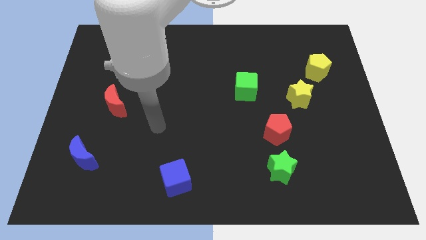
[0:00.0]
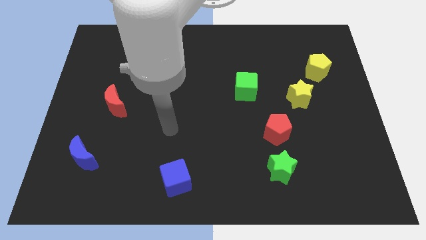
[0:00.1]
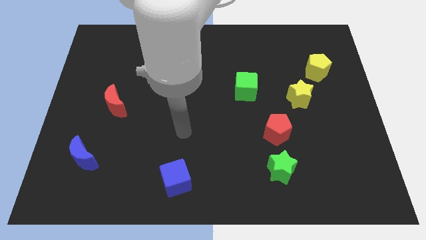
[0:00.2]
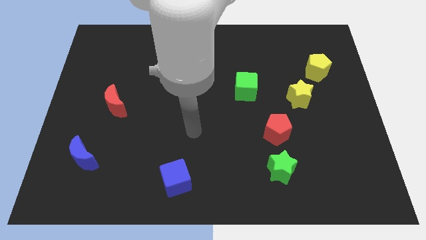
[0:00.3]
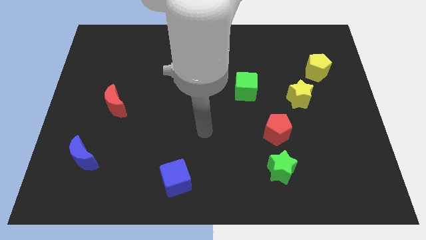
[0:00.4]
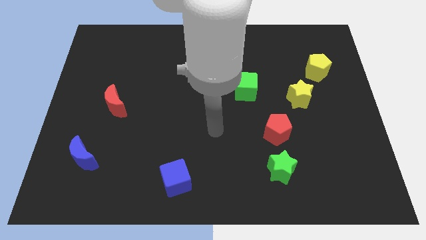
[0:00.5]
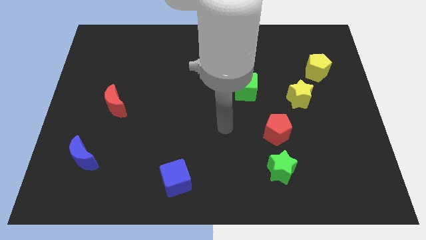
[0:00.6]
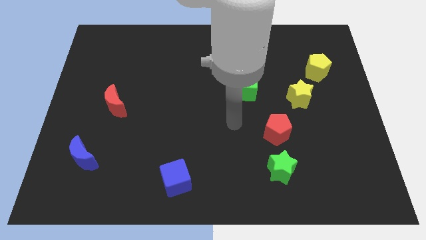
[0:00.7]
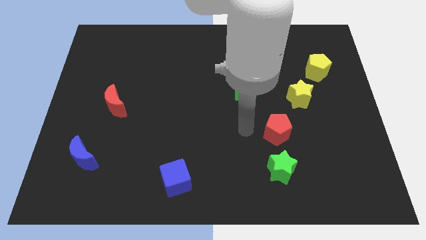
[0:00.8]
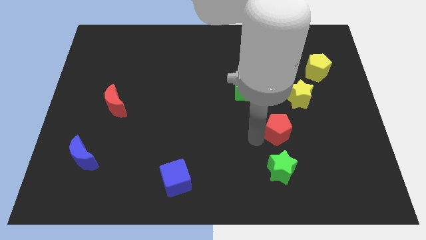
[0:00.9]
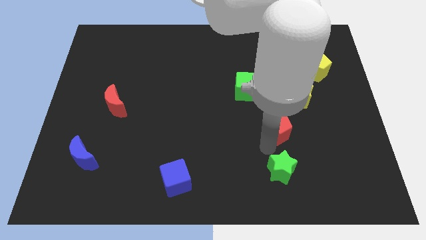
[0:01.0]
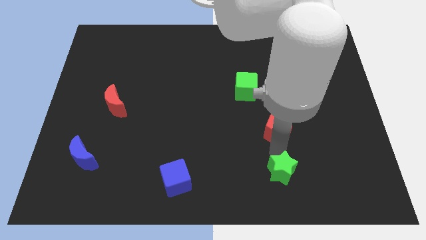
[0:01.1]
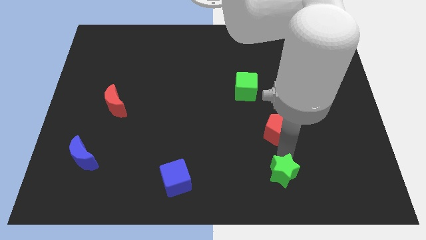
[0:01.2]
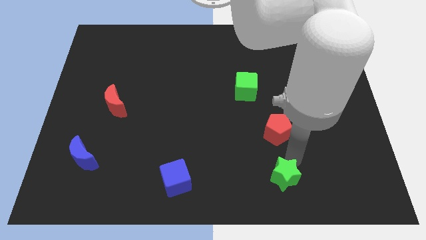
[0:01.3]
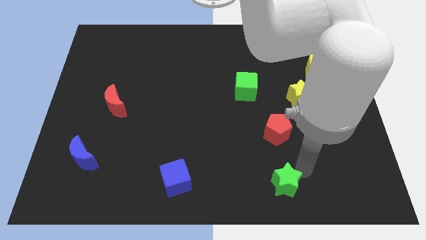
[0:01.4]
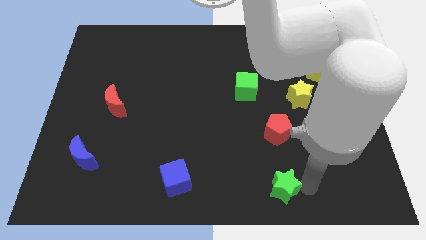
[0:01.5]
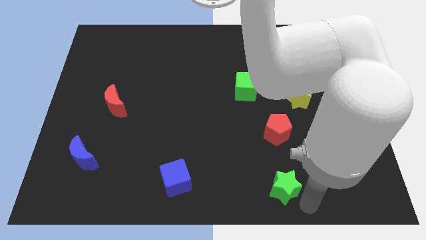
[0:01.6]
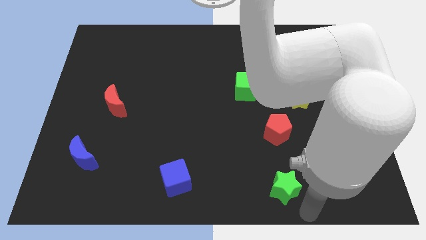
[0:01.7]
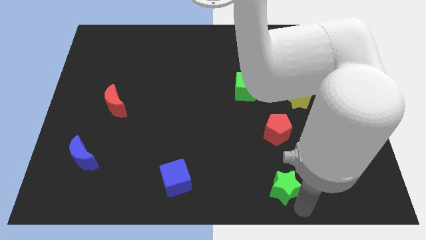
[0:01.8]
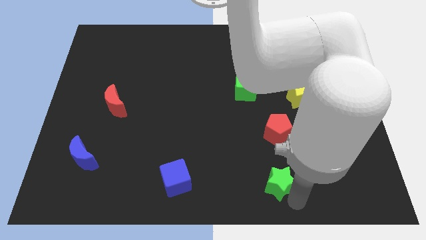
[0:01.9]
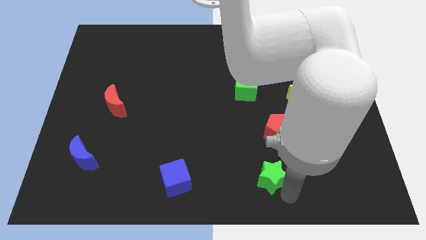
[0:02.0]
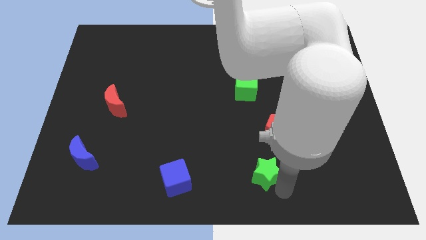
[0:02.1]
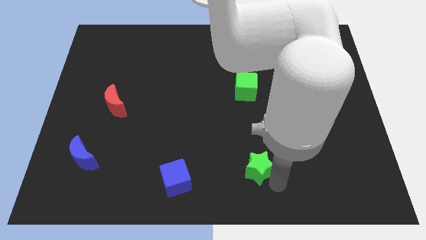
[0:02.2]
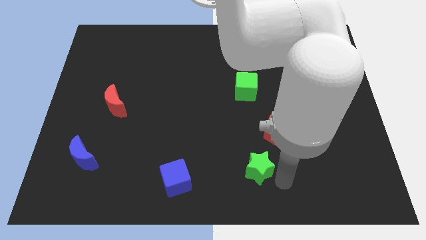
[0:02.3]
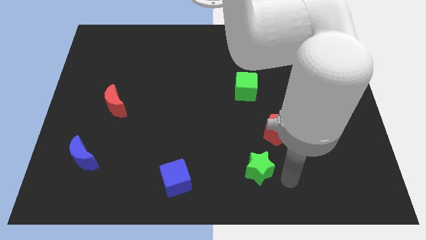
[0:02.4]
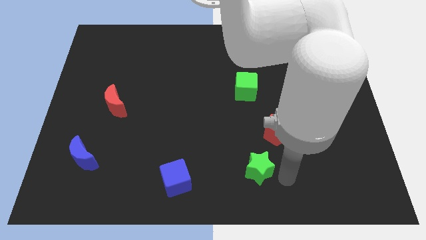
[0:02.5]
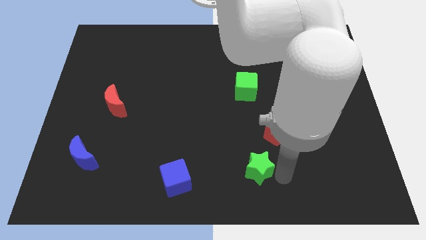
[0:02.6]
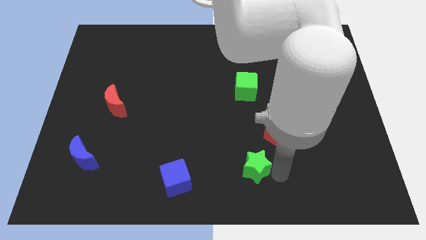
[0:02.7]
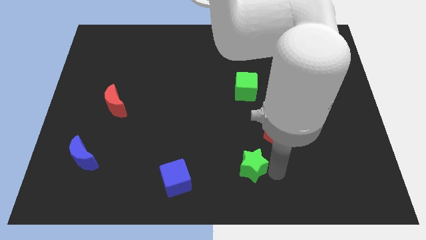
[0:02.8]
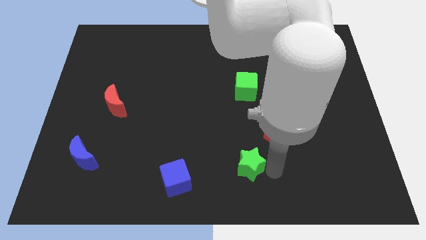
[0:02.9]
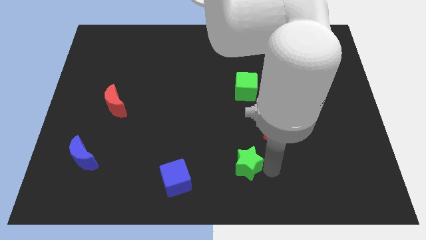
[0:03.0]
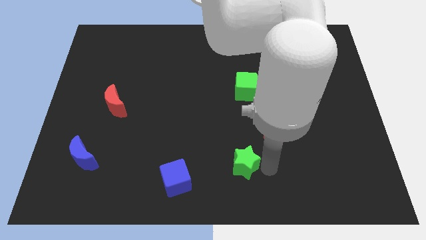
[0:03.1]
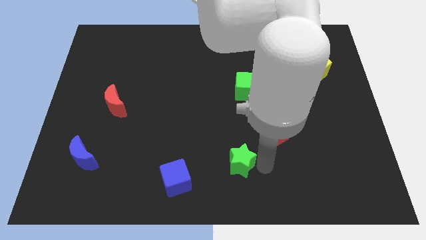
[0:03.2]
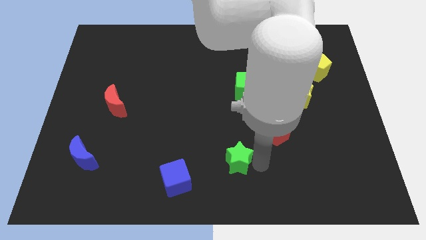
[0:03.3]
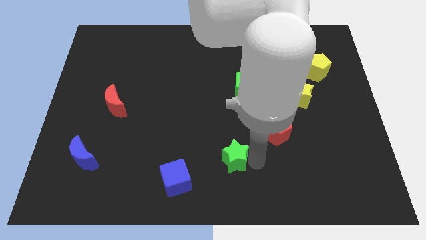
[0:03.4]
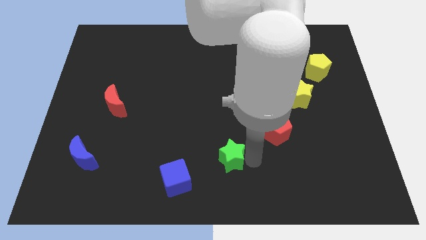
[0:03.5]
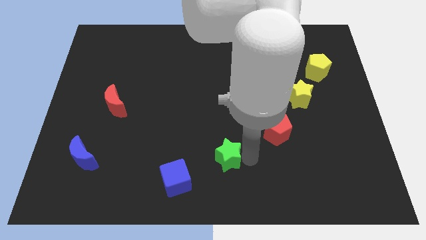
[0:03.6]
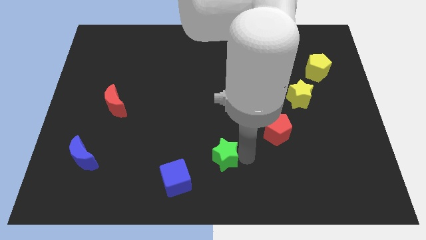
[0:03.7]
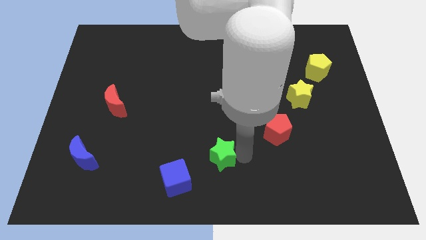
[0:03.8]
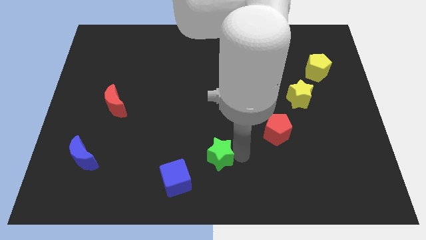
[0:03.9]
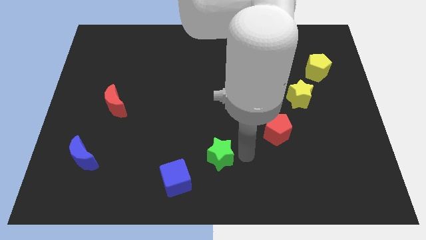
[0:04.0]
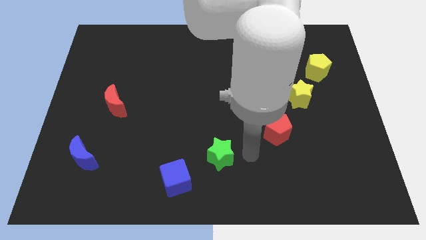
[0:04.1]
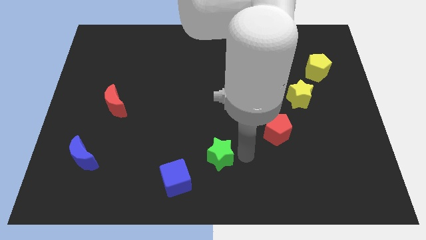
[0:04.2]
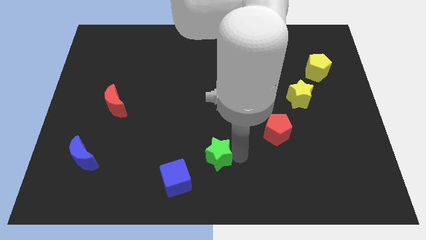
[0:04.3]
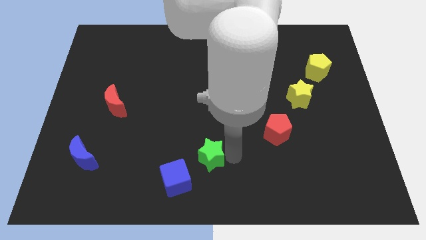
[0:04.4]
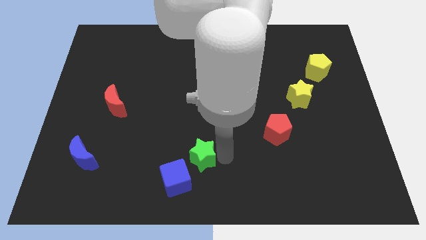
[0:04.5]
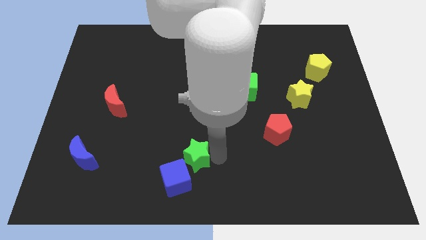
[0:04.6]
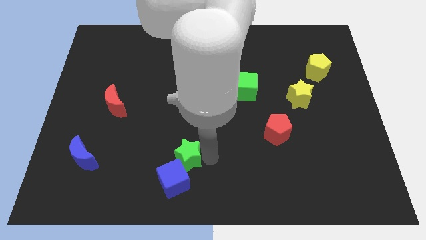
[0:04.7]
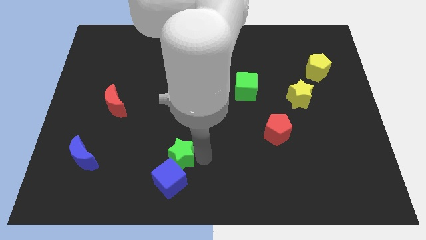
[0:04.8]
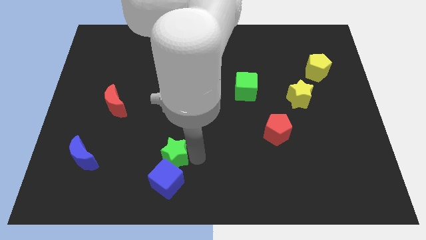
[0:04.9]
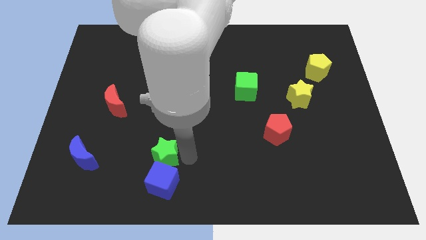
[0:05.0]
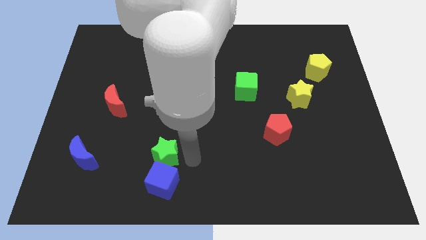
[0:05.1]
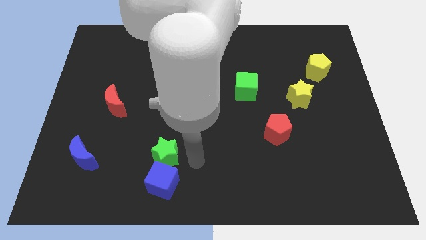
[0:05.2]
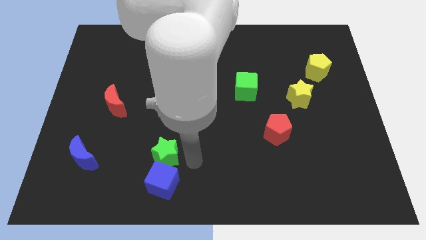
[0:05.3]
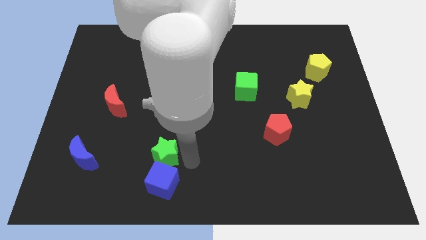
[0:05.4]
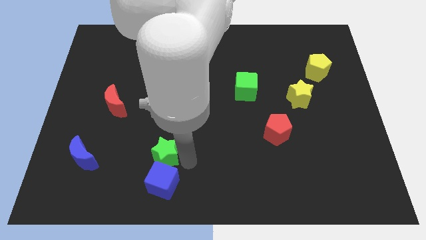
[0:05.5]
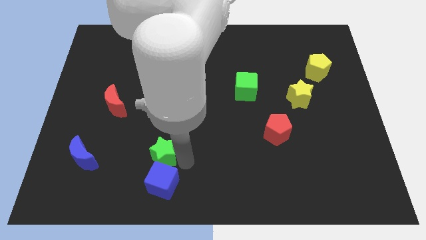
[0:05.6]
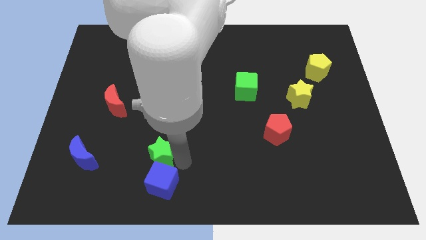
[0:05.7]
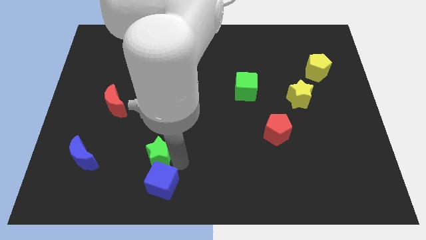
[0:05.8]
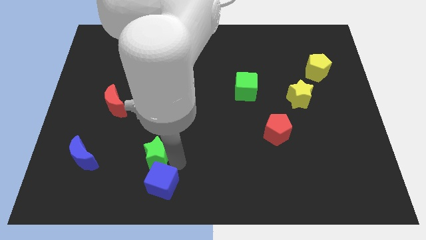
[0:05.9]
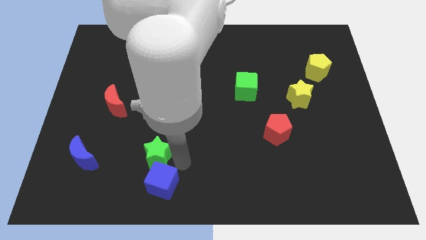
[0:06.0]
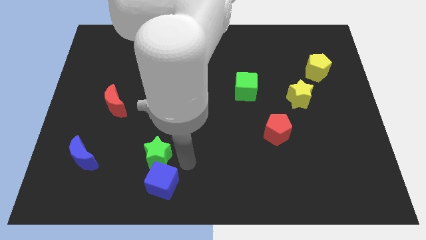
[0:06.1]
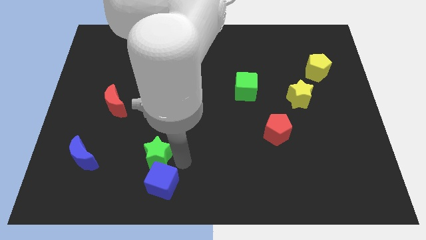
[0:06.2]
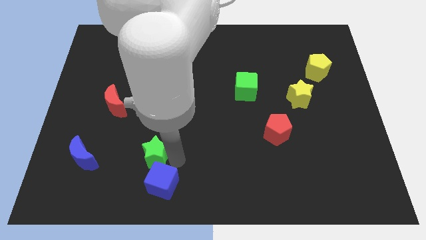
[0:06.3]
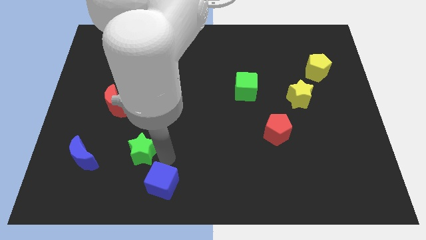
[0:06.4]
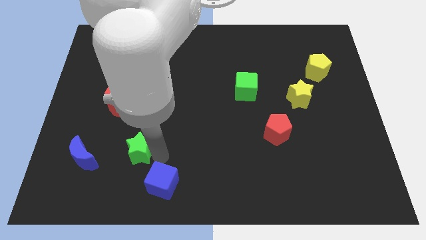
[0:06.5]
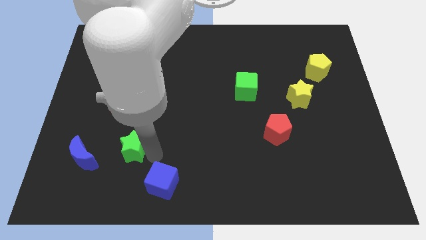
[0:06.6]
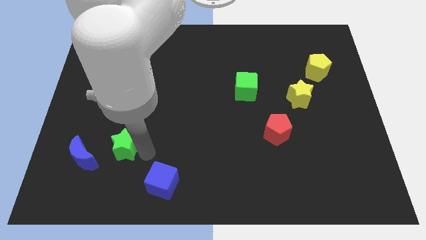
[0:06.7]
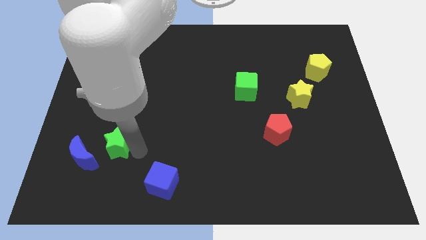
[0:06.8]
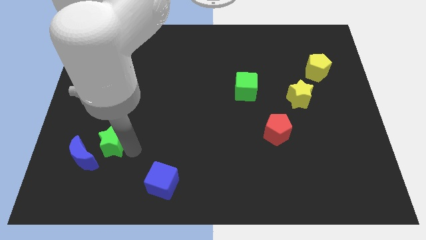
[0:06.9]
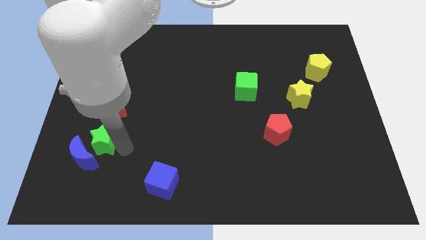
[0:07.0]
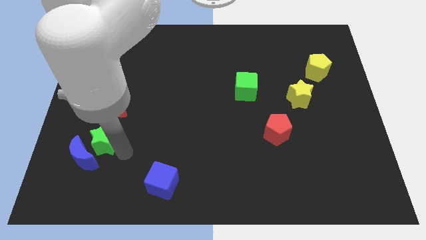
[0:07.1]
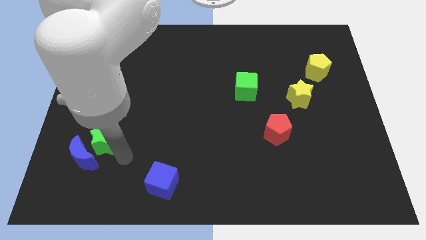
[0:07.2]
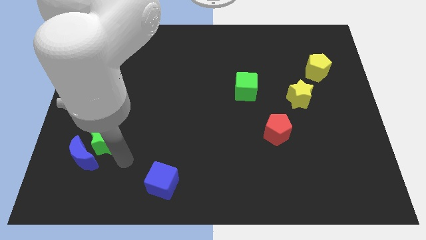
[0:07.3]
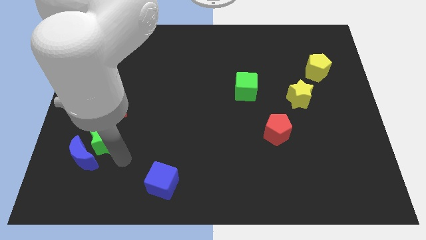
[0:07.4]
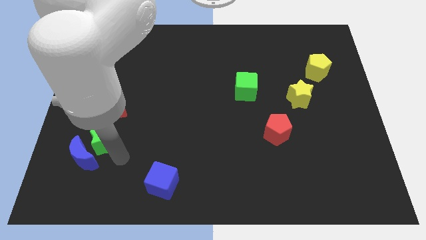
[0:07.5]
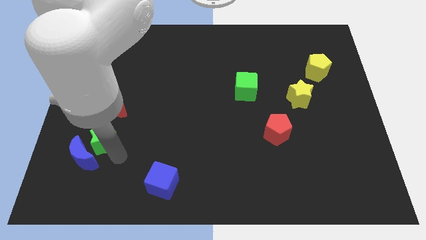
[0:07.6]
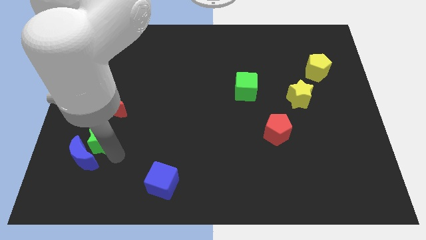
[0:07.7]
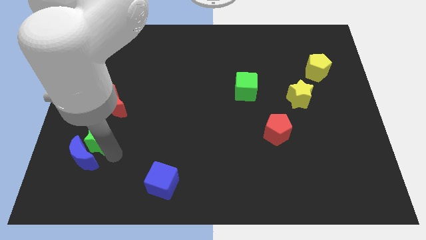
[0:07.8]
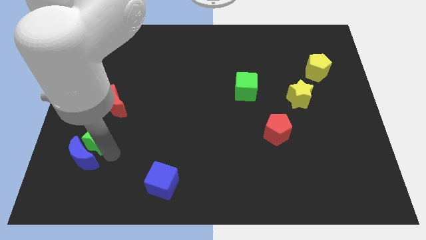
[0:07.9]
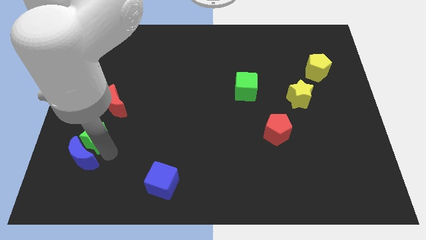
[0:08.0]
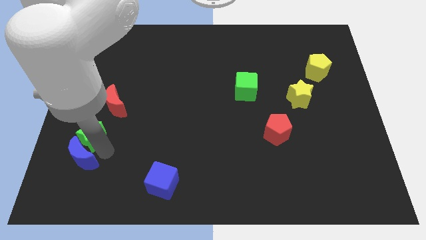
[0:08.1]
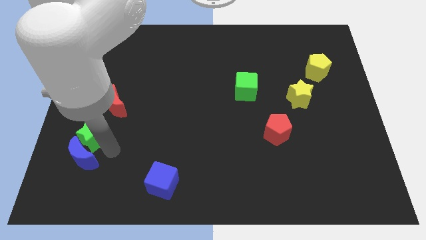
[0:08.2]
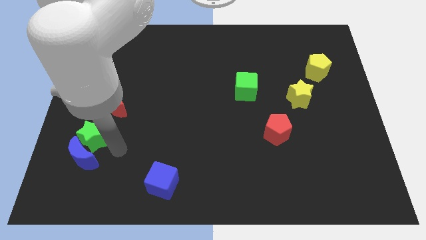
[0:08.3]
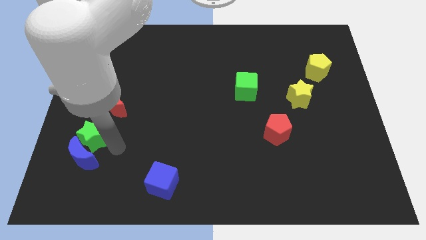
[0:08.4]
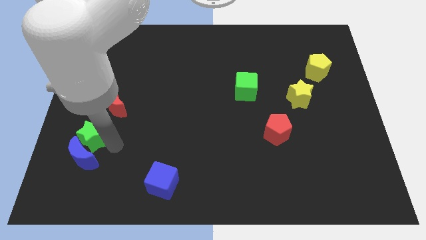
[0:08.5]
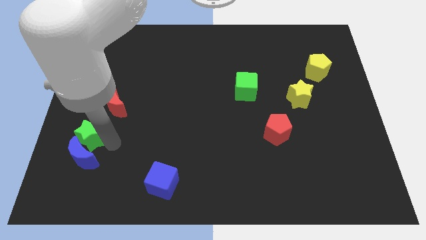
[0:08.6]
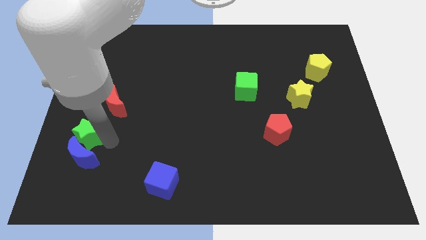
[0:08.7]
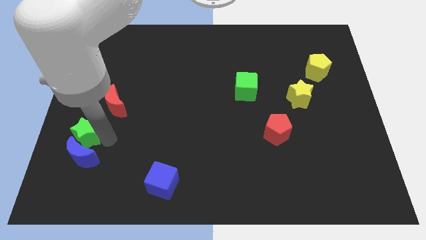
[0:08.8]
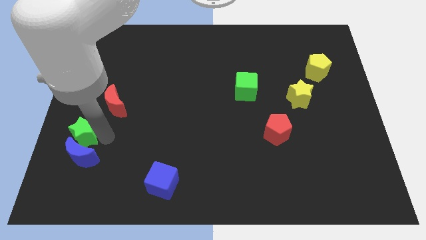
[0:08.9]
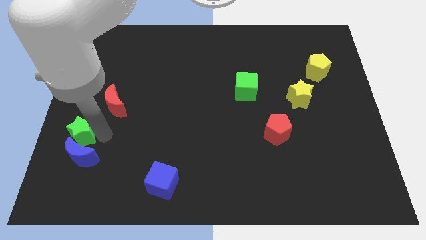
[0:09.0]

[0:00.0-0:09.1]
push the green star to the center left
